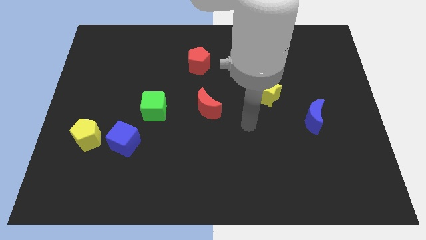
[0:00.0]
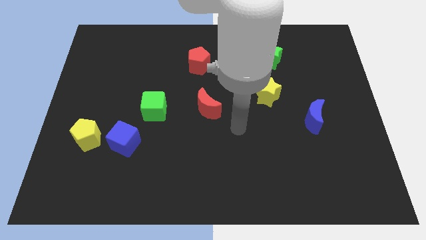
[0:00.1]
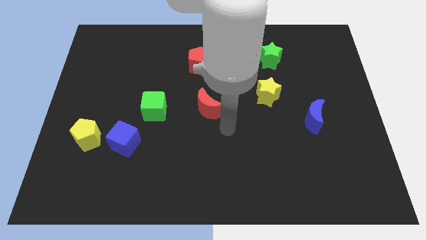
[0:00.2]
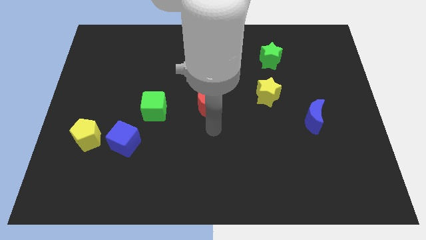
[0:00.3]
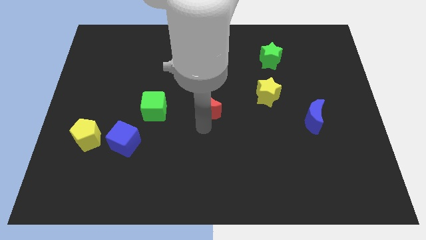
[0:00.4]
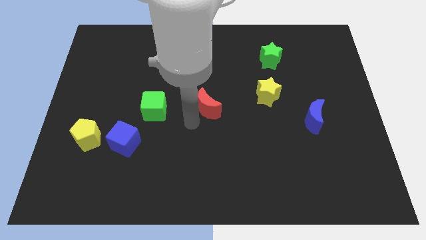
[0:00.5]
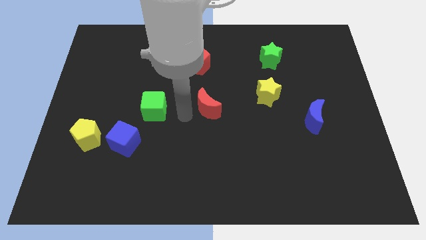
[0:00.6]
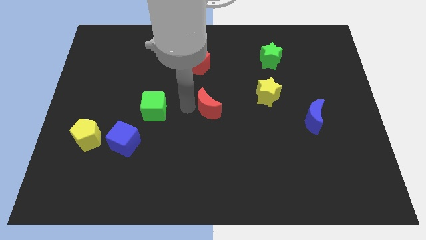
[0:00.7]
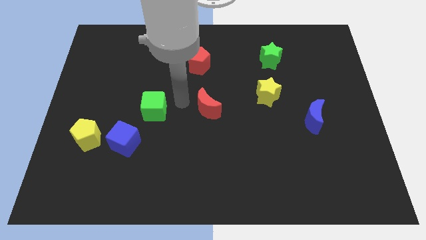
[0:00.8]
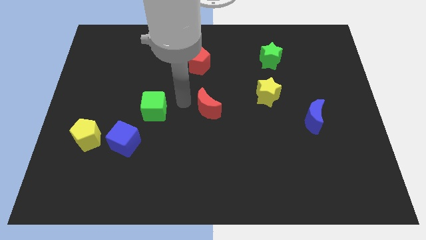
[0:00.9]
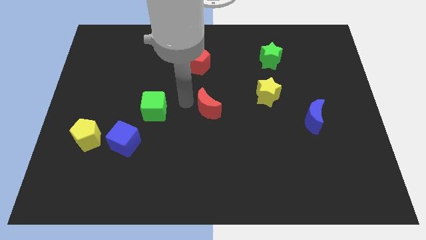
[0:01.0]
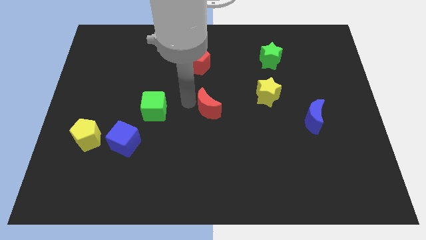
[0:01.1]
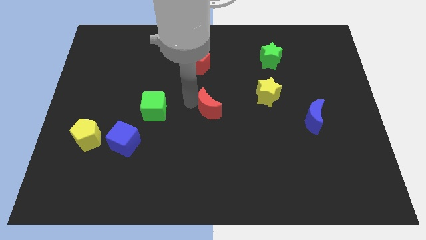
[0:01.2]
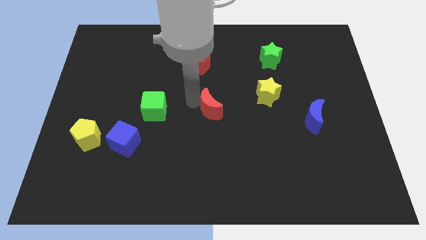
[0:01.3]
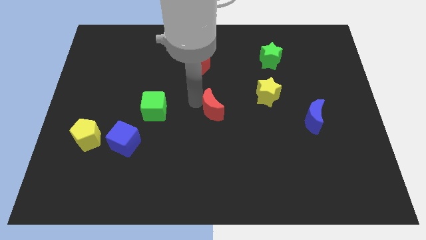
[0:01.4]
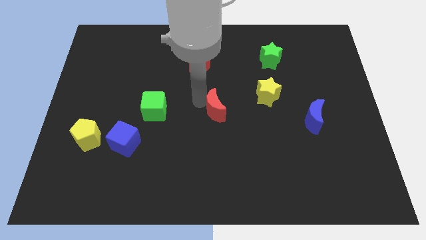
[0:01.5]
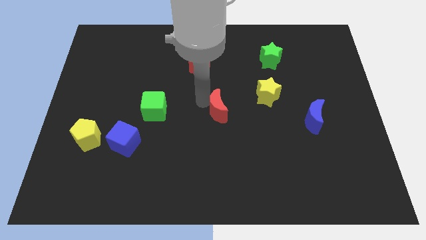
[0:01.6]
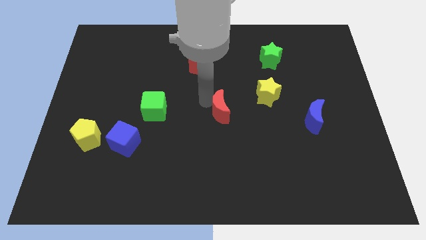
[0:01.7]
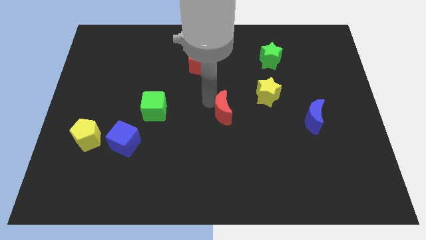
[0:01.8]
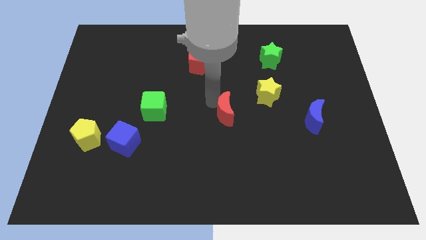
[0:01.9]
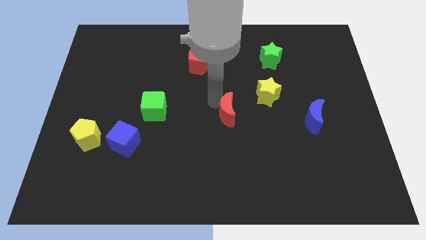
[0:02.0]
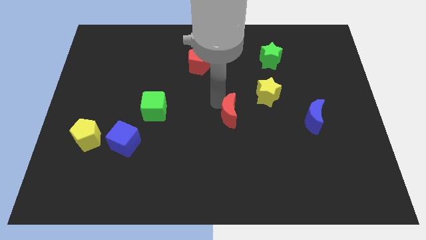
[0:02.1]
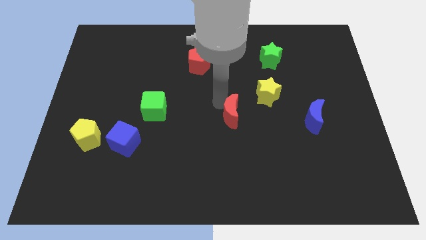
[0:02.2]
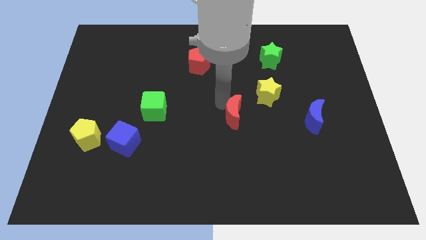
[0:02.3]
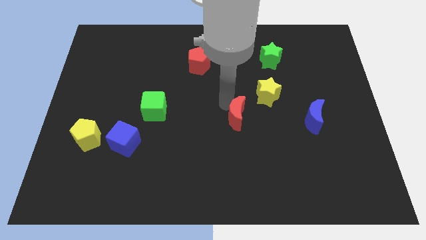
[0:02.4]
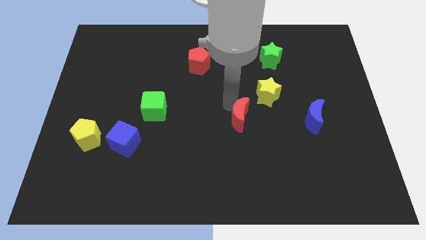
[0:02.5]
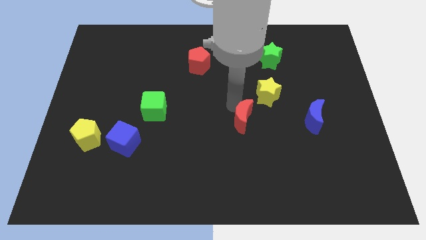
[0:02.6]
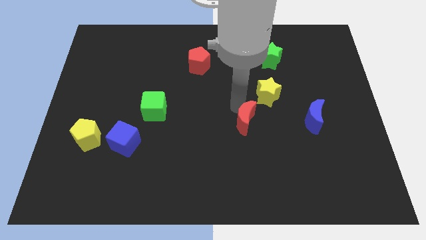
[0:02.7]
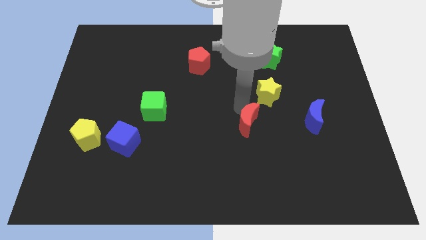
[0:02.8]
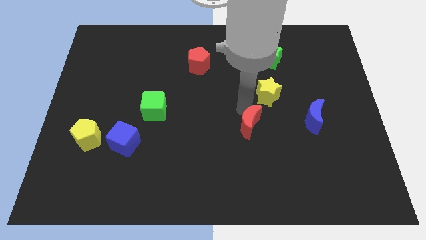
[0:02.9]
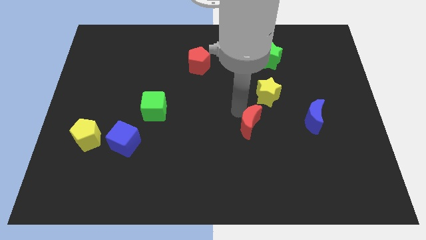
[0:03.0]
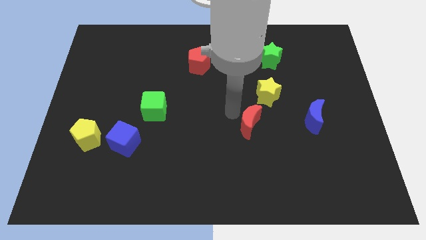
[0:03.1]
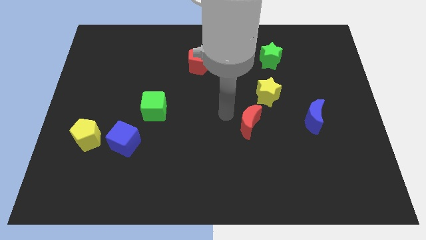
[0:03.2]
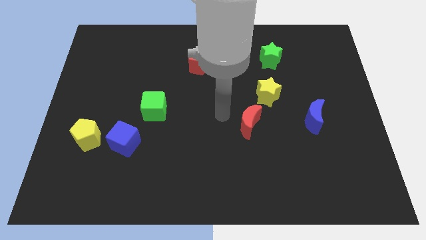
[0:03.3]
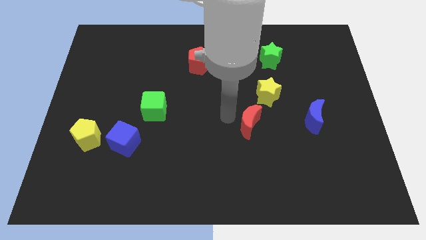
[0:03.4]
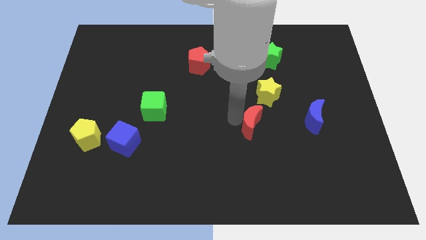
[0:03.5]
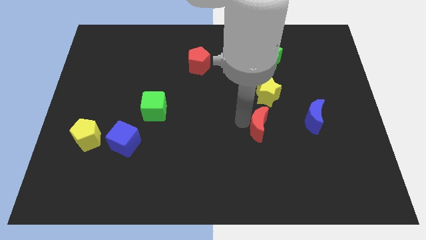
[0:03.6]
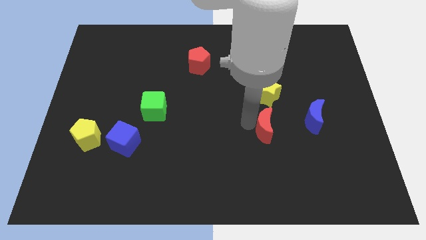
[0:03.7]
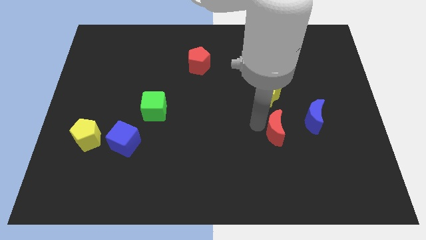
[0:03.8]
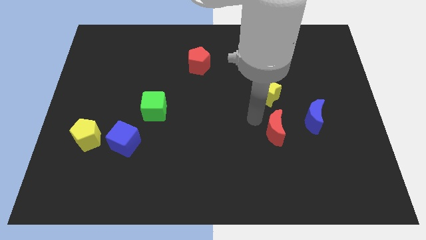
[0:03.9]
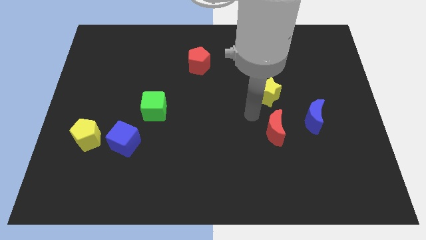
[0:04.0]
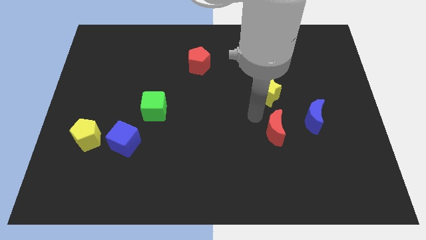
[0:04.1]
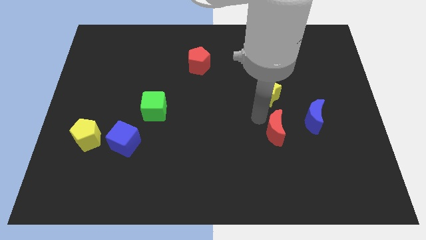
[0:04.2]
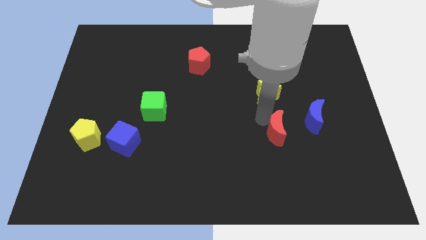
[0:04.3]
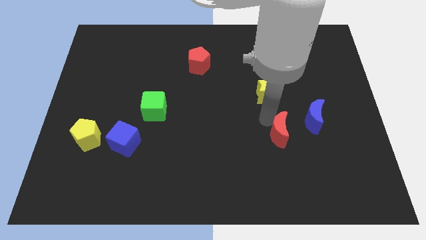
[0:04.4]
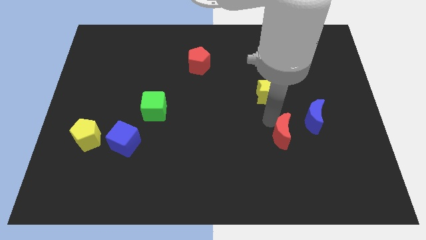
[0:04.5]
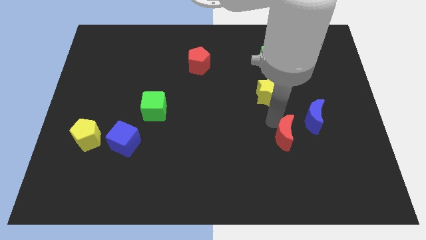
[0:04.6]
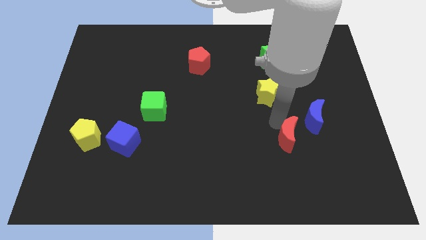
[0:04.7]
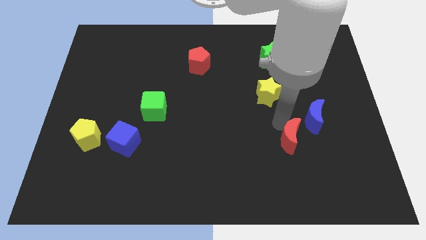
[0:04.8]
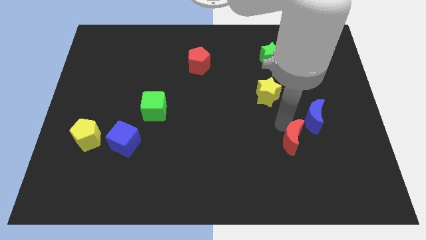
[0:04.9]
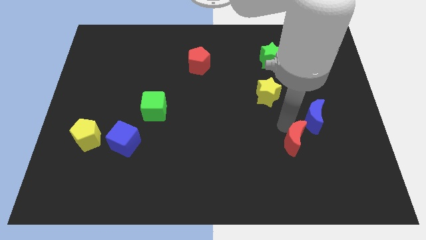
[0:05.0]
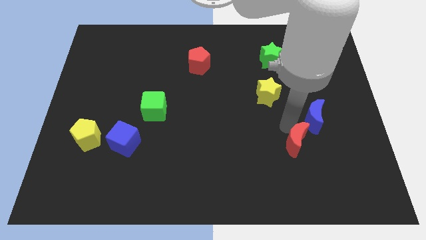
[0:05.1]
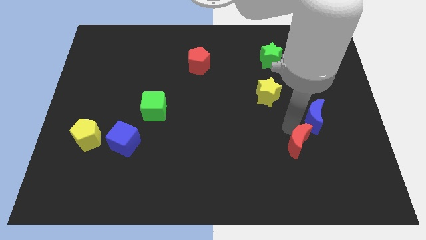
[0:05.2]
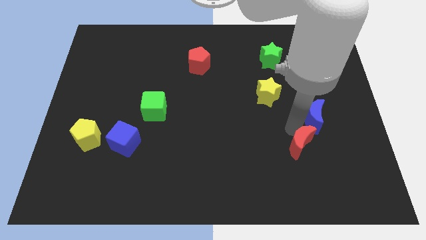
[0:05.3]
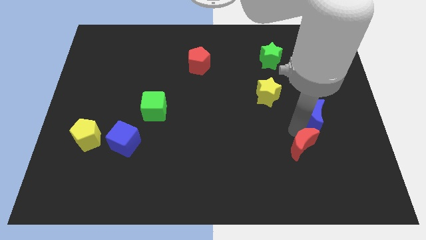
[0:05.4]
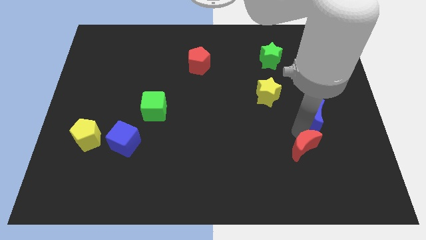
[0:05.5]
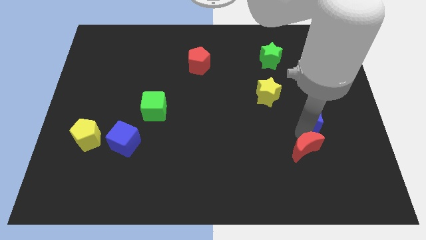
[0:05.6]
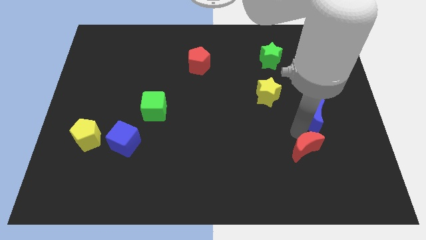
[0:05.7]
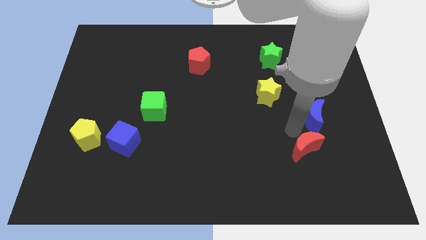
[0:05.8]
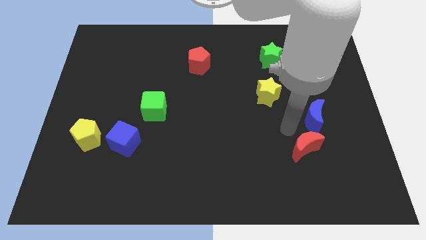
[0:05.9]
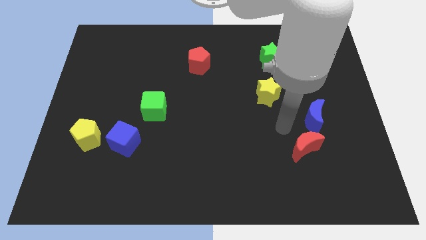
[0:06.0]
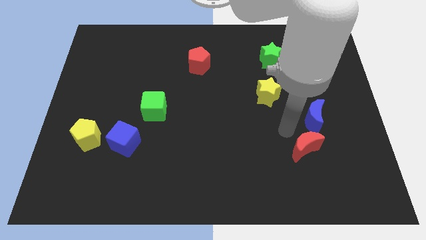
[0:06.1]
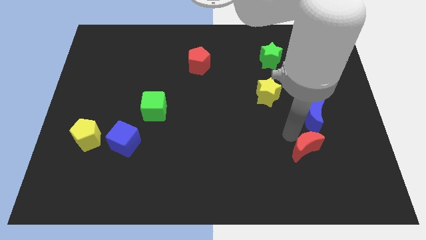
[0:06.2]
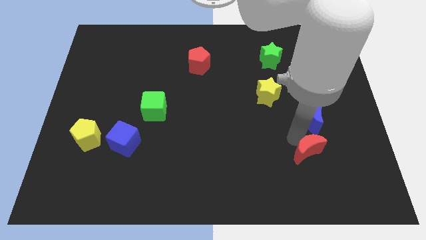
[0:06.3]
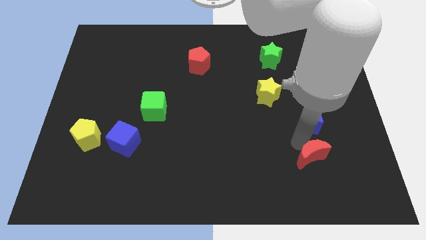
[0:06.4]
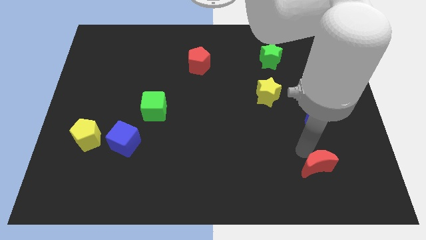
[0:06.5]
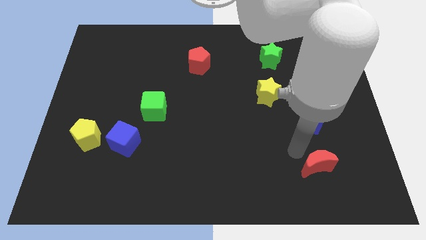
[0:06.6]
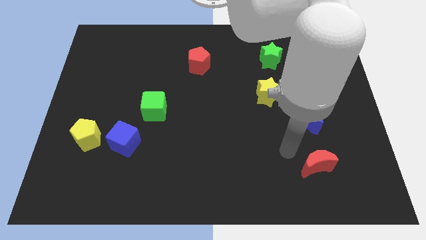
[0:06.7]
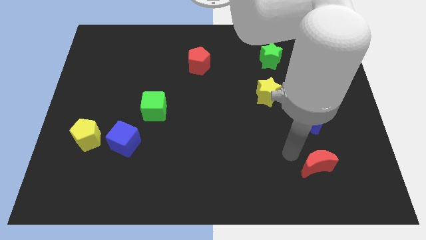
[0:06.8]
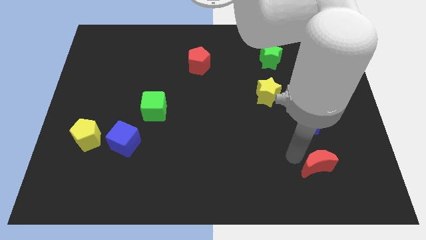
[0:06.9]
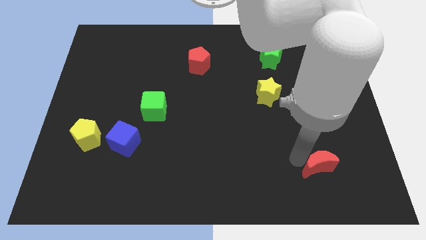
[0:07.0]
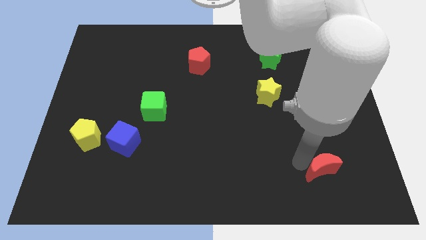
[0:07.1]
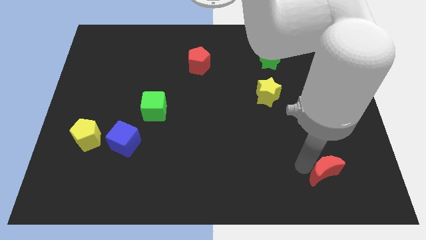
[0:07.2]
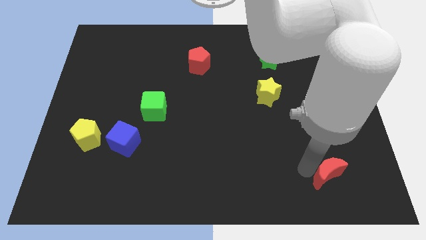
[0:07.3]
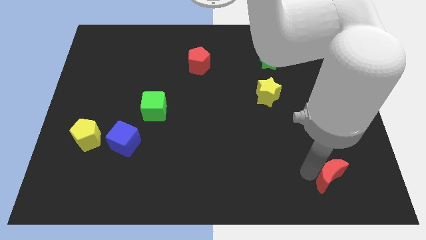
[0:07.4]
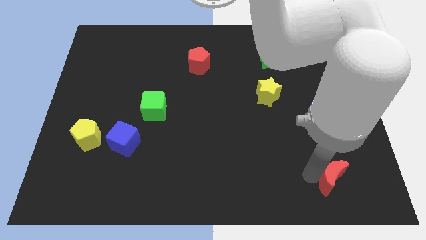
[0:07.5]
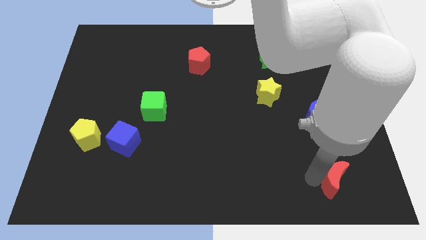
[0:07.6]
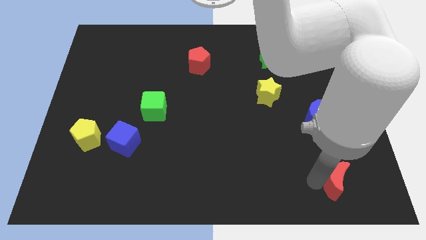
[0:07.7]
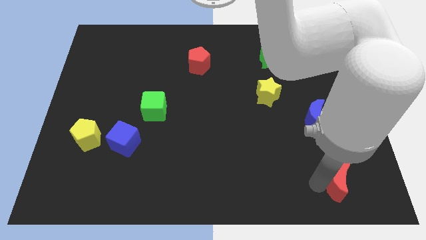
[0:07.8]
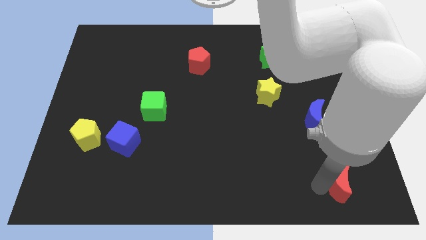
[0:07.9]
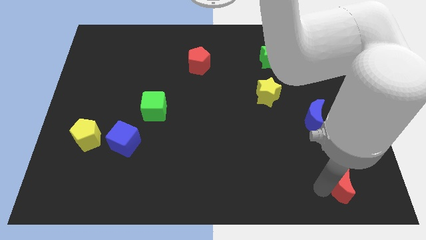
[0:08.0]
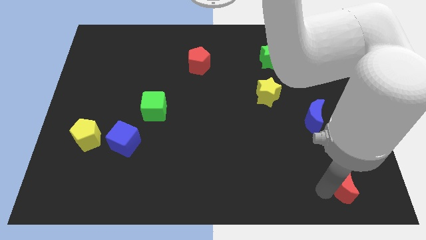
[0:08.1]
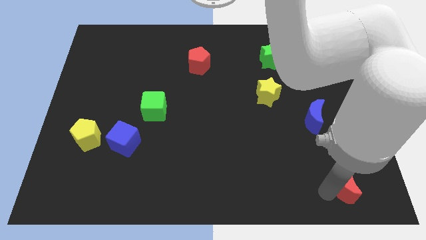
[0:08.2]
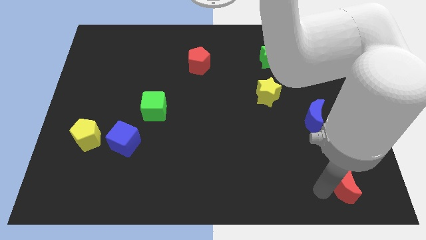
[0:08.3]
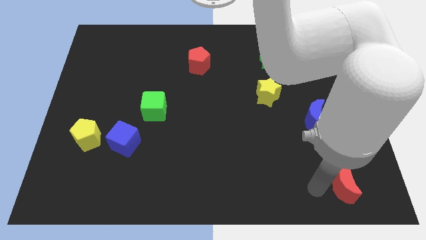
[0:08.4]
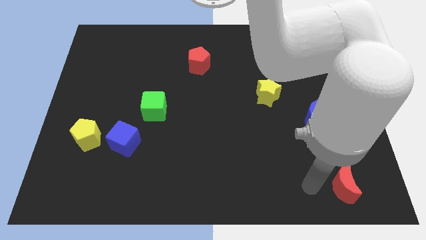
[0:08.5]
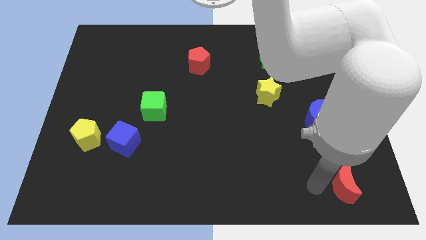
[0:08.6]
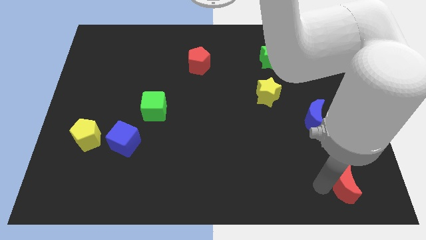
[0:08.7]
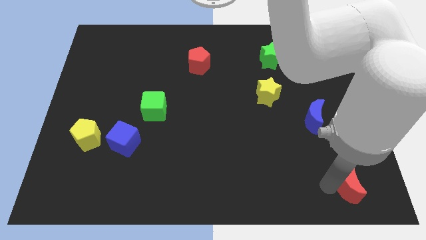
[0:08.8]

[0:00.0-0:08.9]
push the red moon to the bottom right
